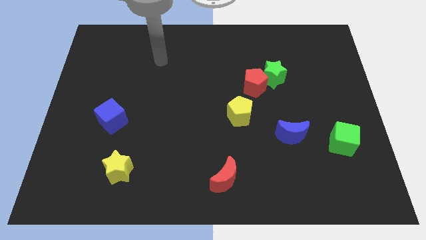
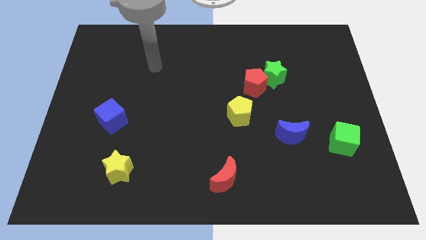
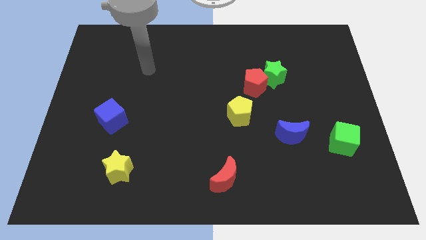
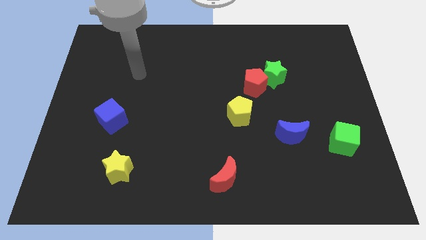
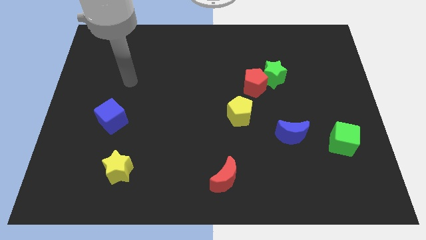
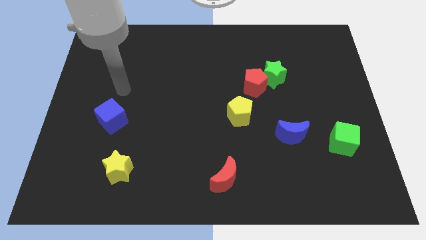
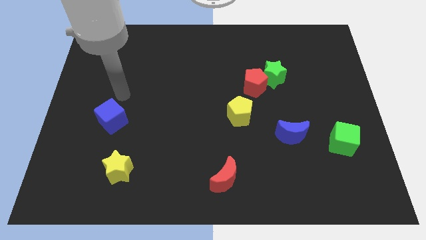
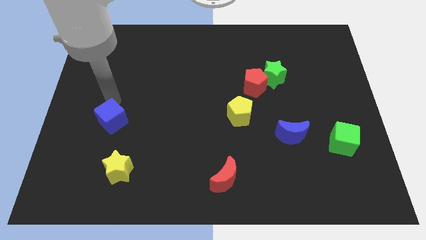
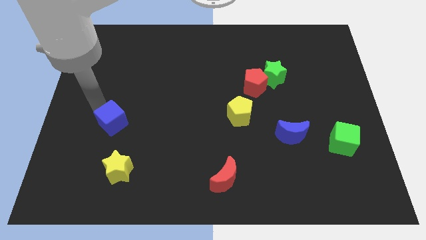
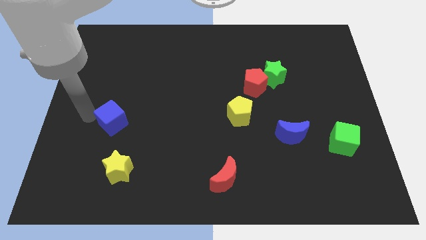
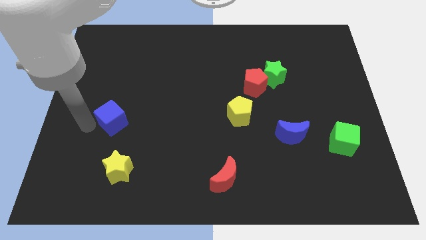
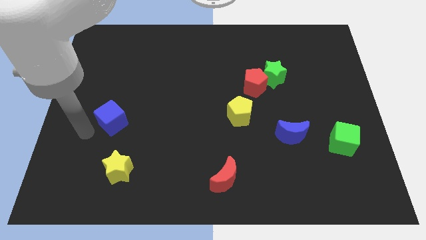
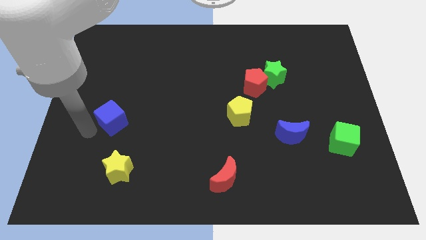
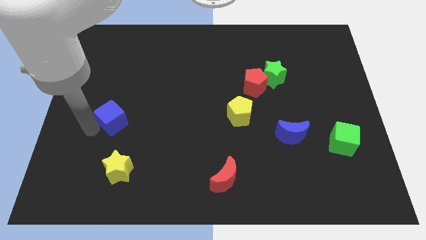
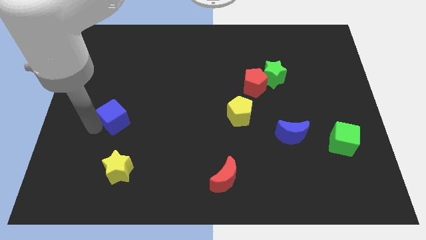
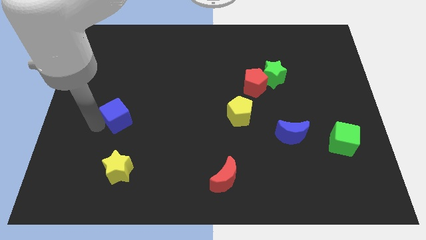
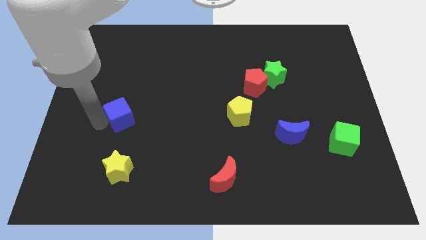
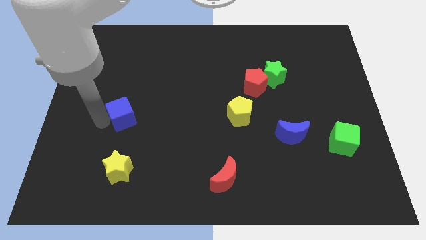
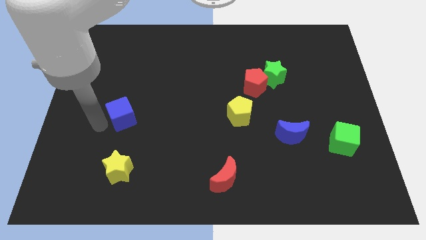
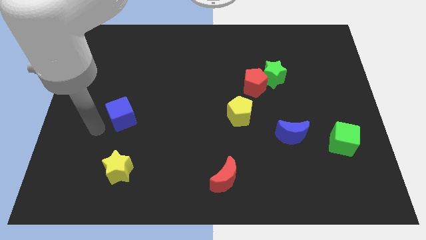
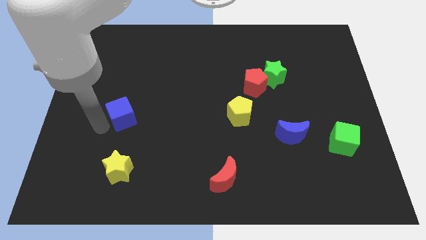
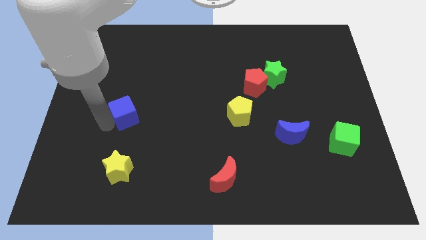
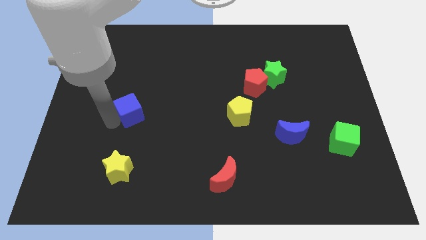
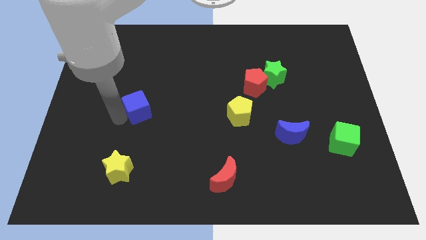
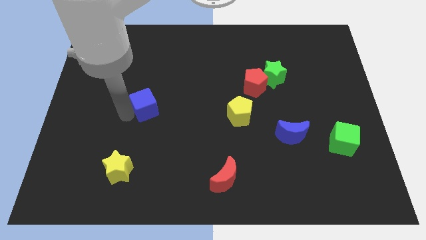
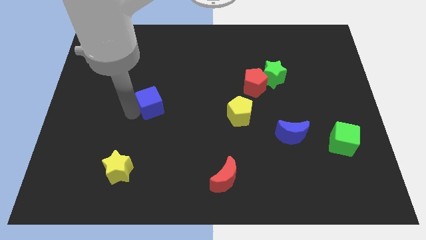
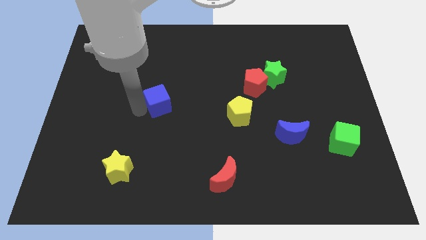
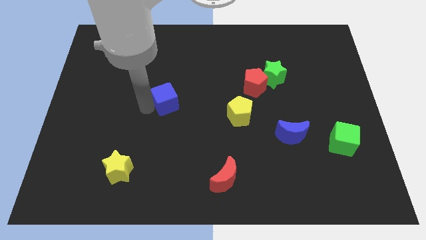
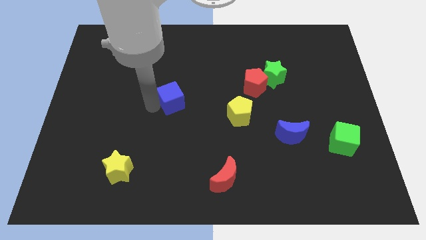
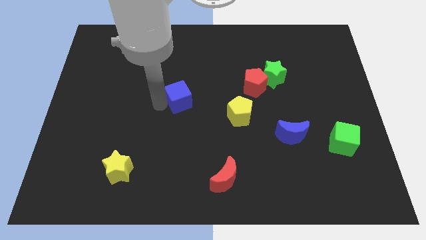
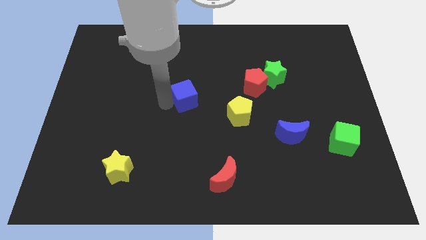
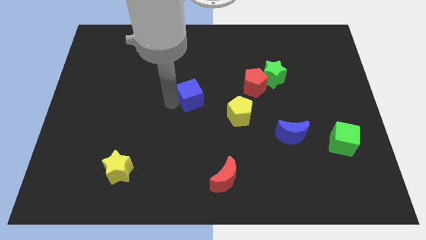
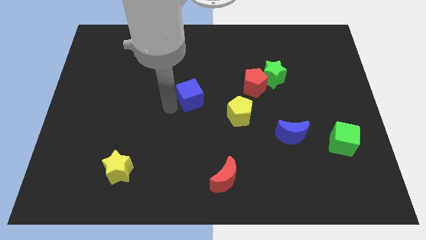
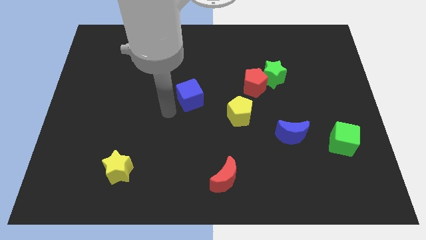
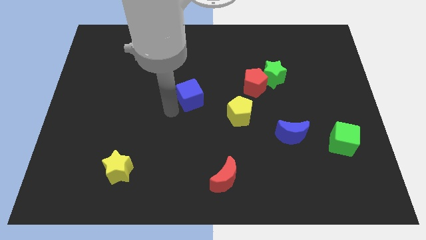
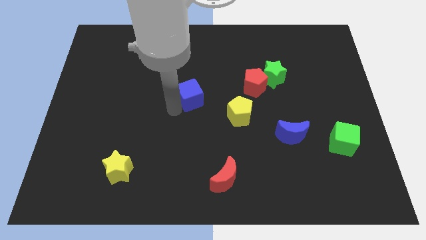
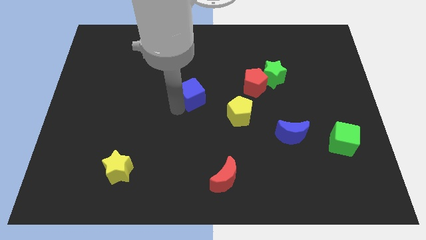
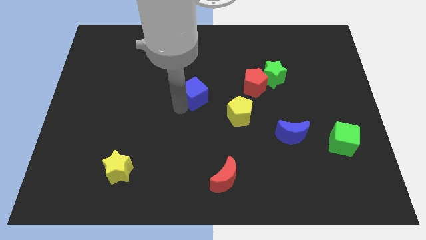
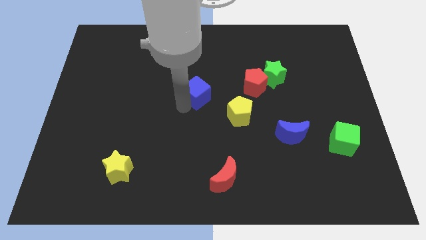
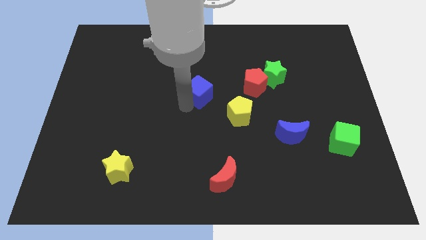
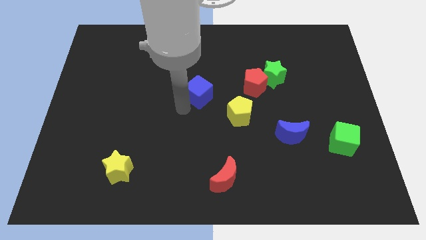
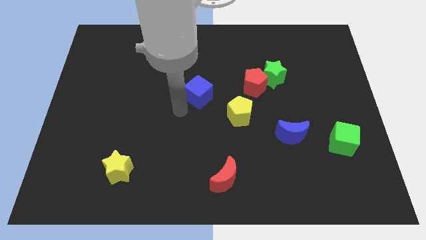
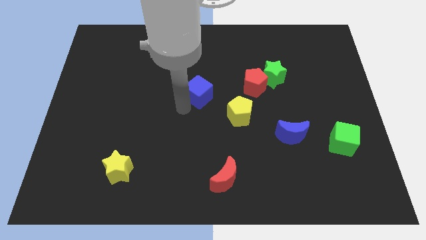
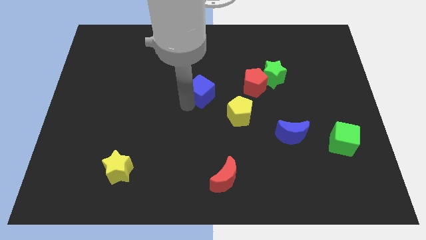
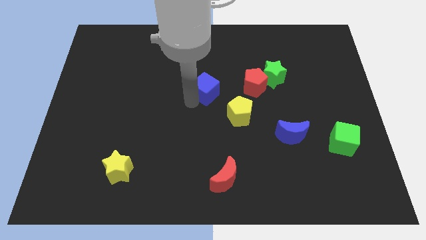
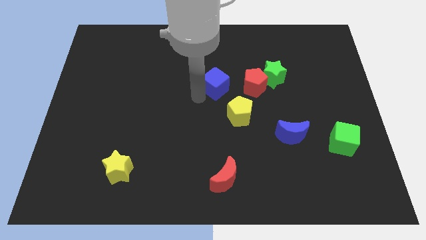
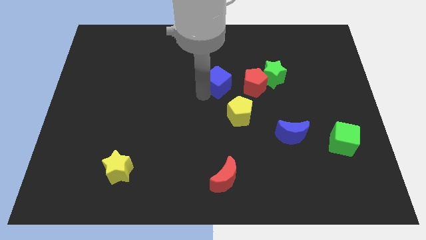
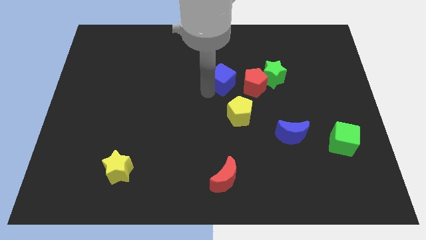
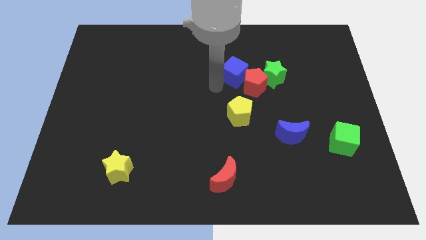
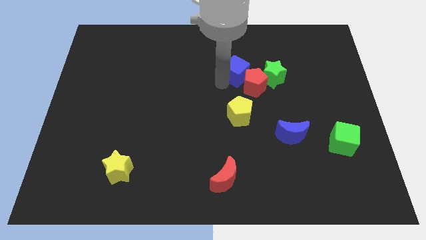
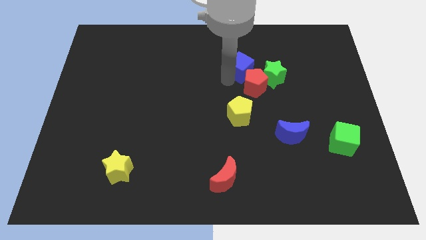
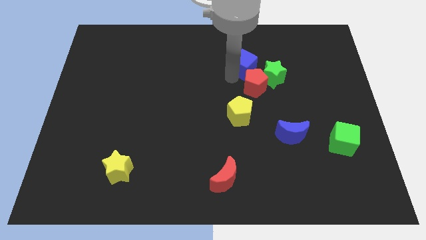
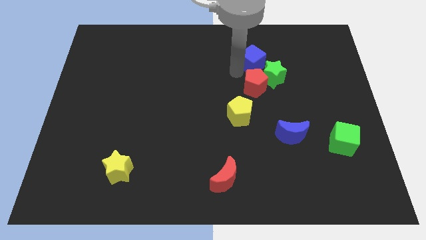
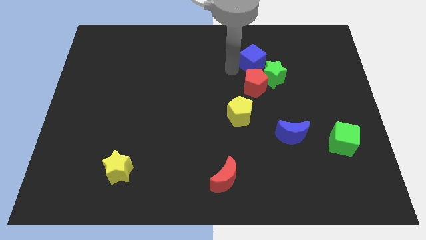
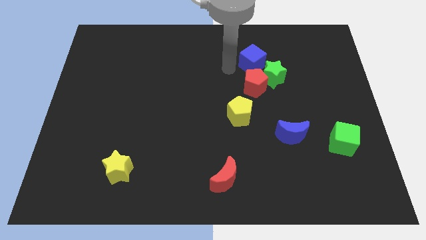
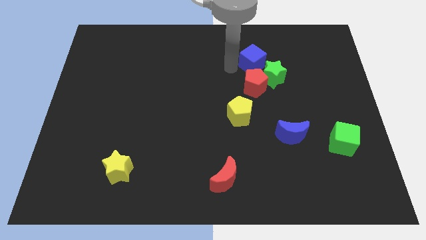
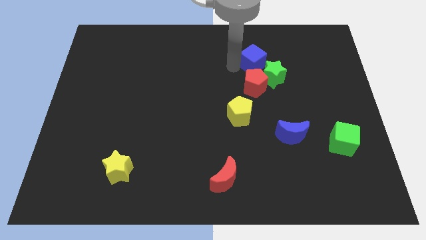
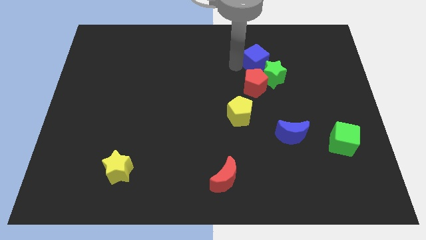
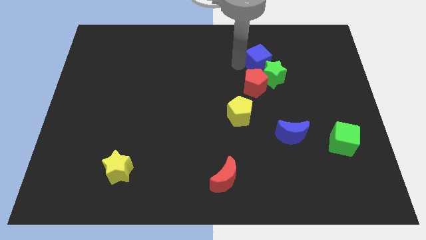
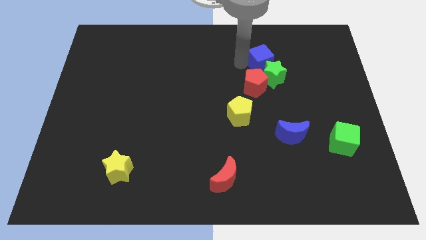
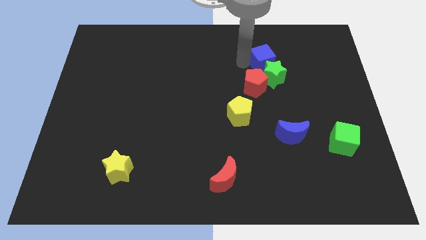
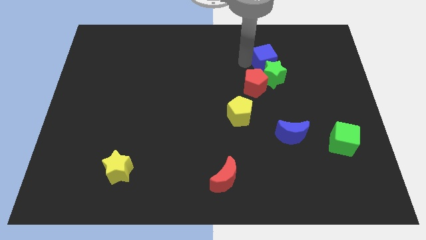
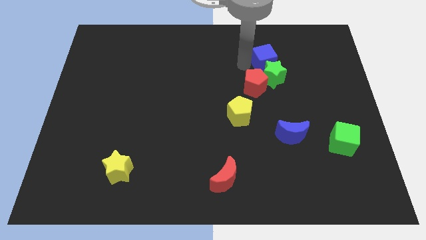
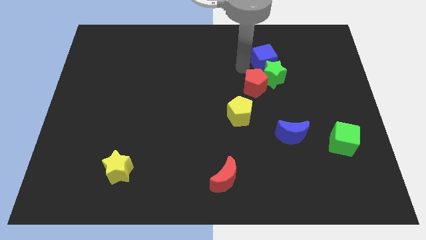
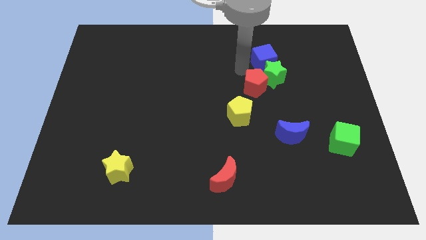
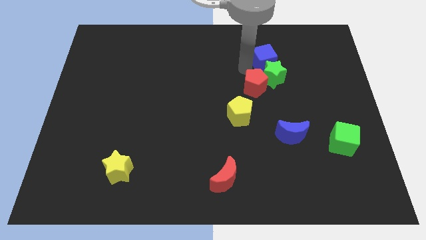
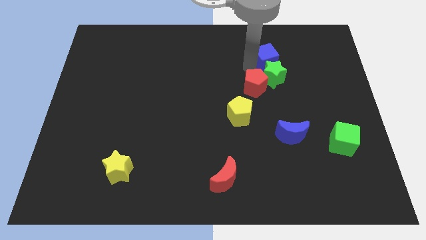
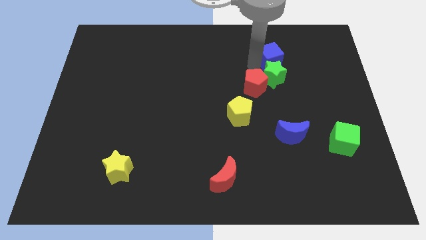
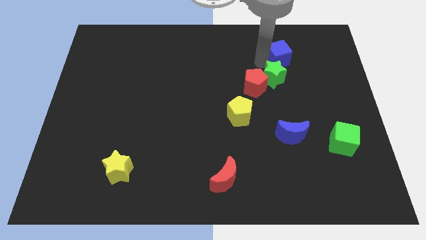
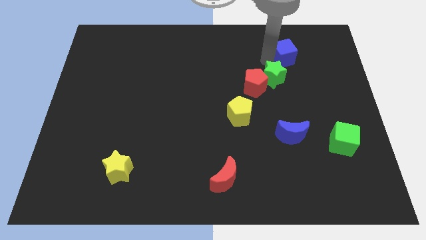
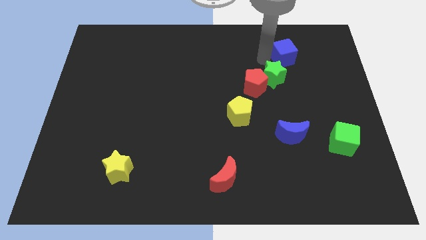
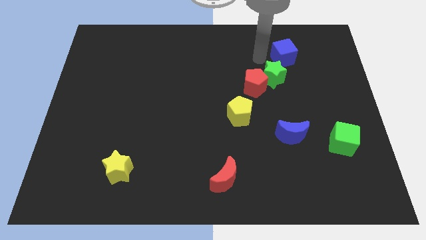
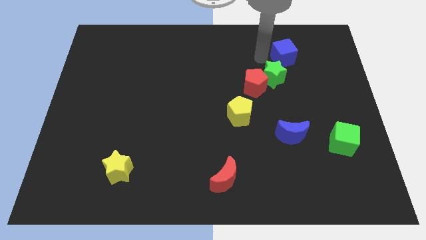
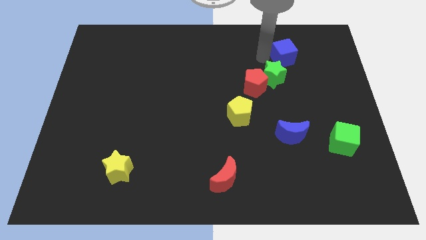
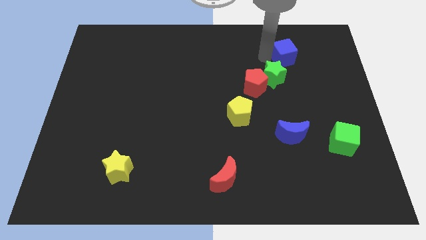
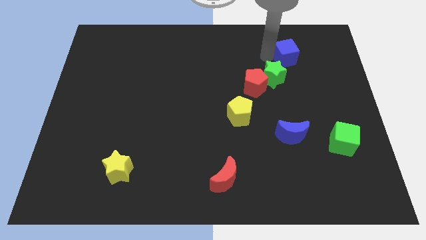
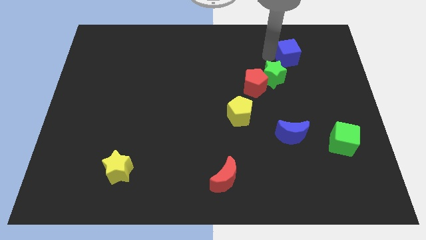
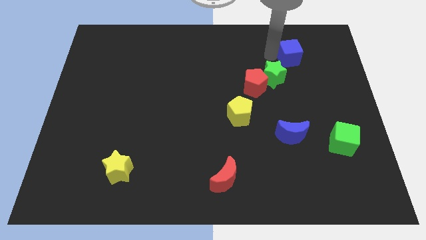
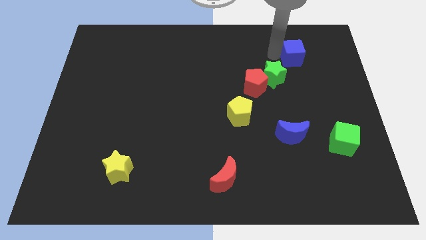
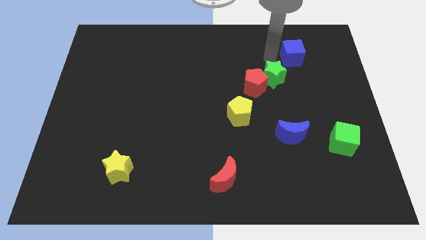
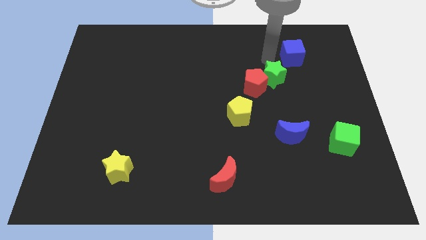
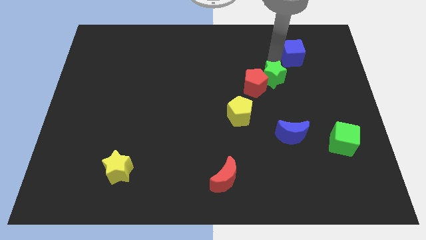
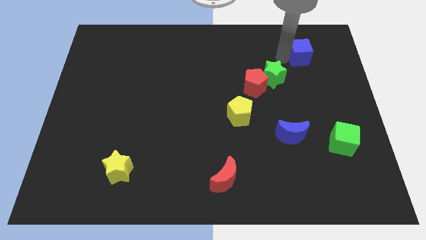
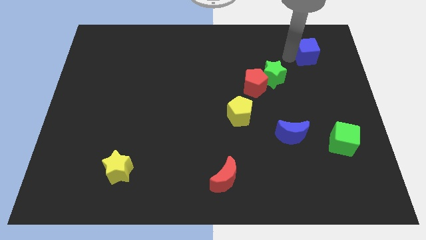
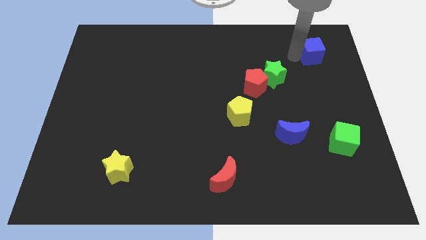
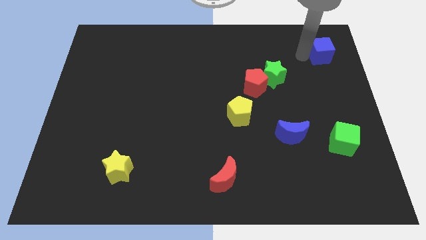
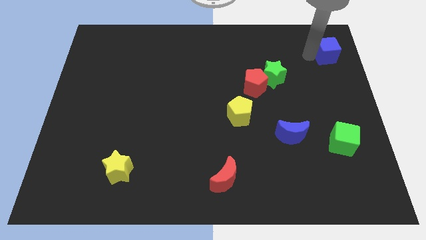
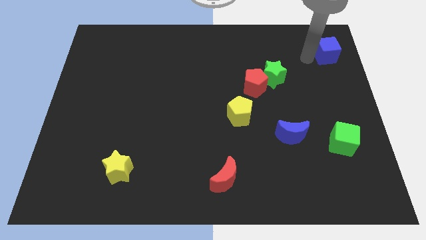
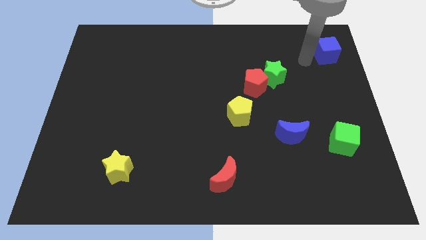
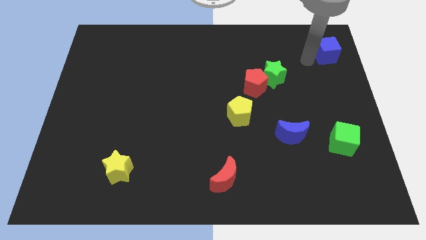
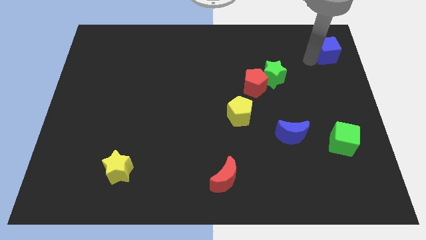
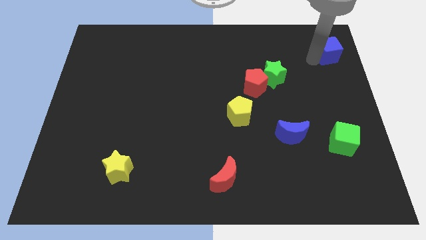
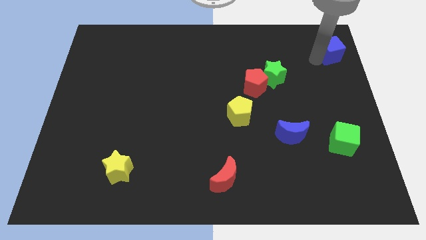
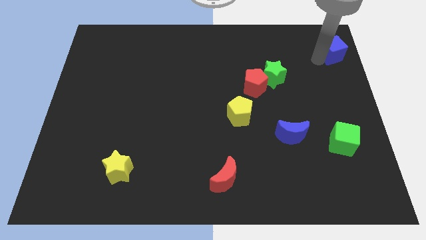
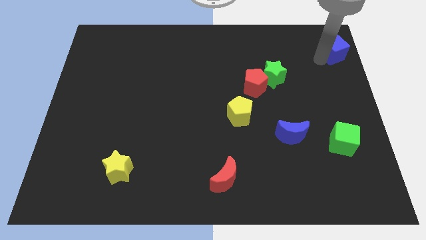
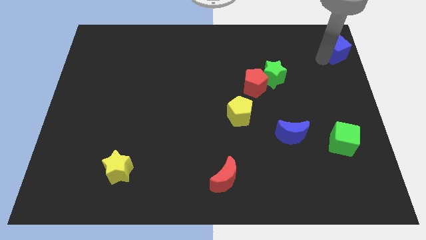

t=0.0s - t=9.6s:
move the blue cube to the upper right corner
